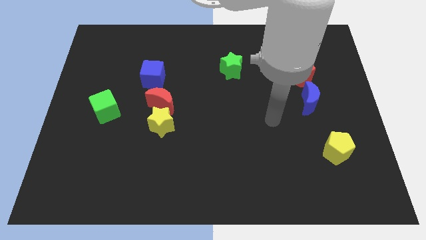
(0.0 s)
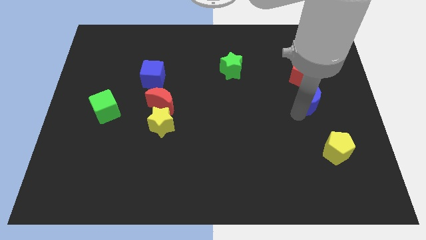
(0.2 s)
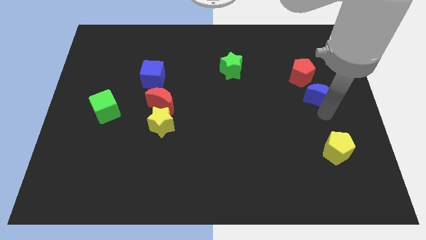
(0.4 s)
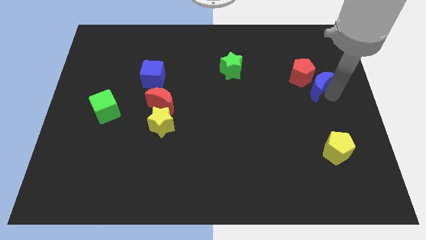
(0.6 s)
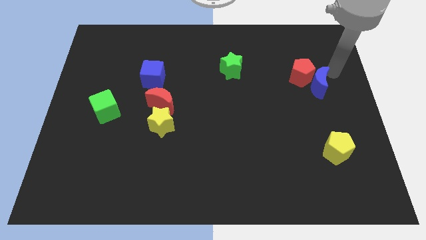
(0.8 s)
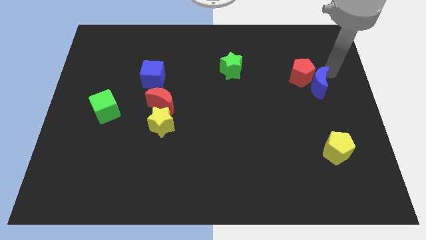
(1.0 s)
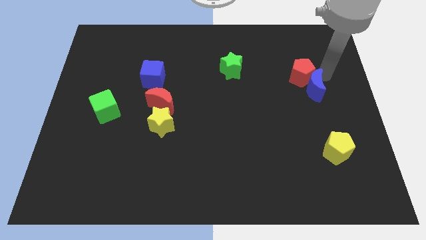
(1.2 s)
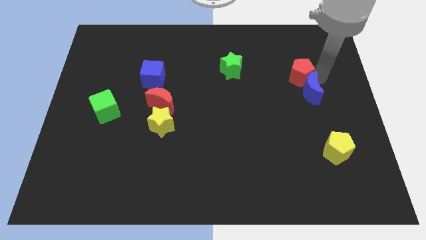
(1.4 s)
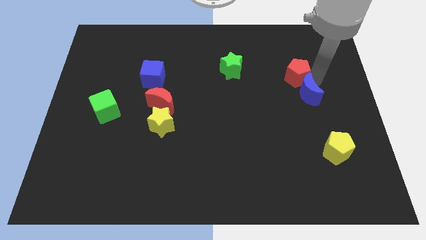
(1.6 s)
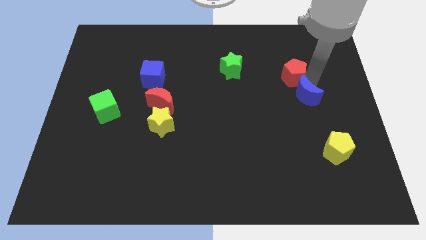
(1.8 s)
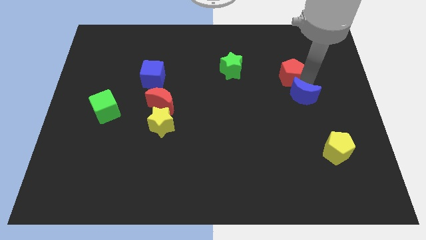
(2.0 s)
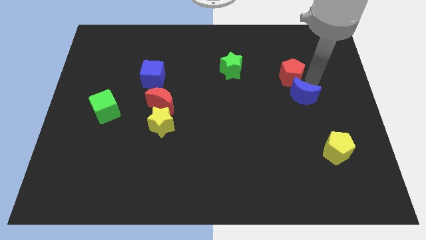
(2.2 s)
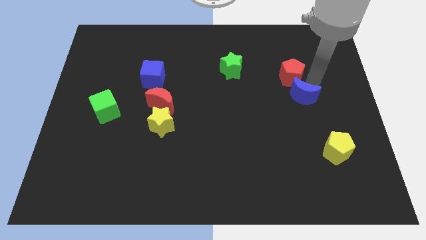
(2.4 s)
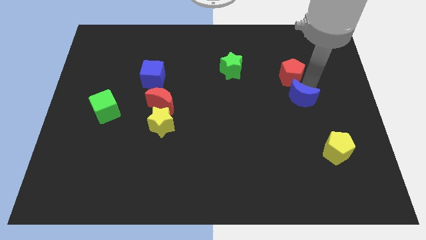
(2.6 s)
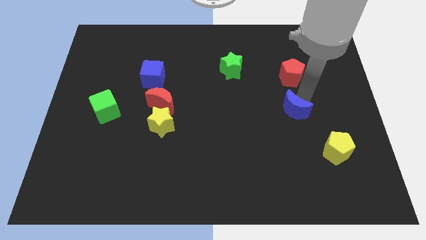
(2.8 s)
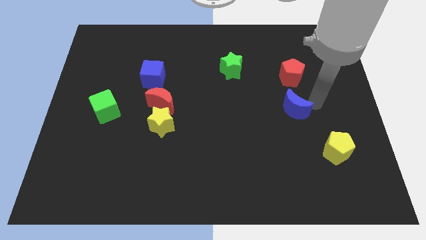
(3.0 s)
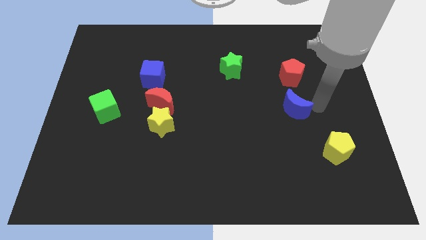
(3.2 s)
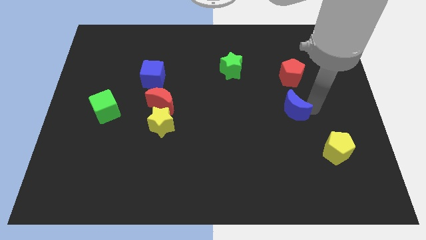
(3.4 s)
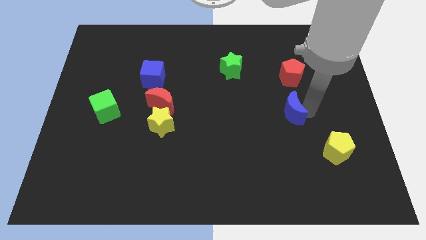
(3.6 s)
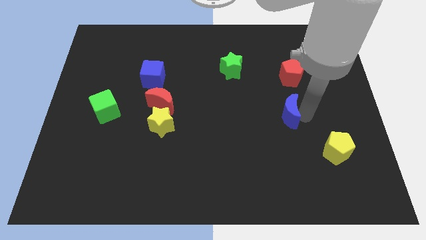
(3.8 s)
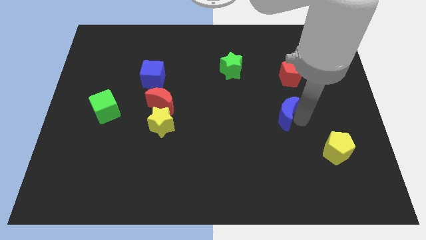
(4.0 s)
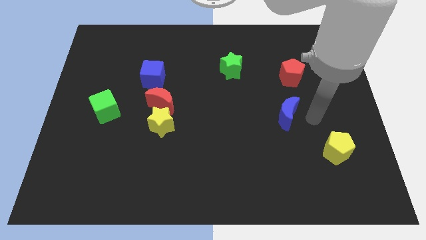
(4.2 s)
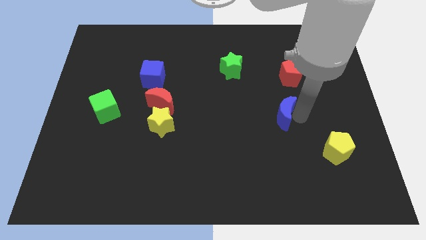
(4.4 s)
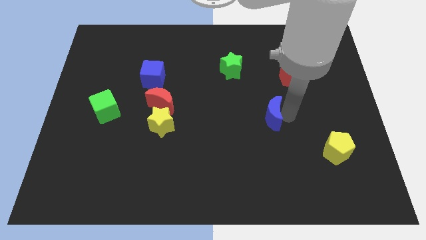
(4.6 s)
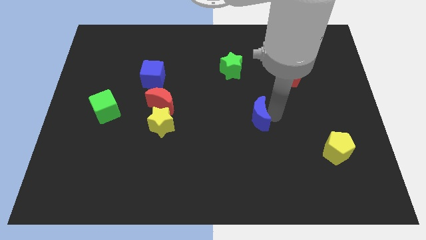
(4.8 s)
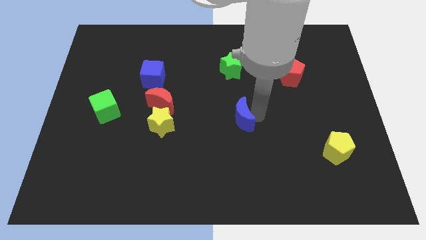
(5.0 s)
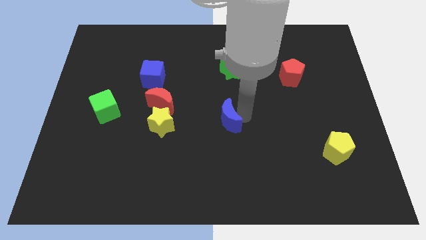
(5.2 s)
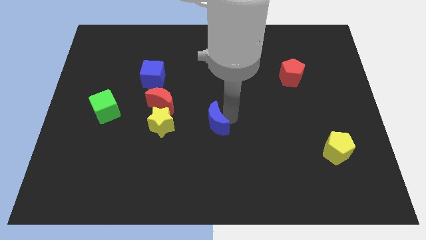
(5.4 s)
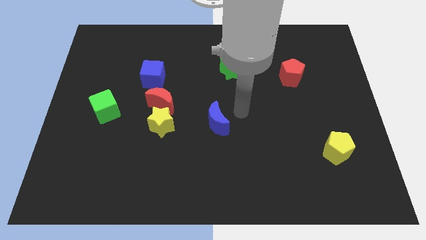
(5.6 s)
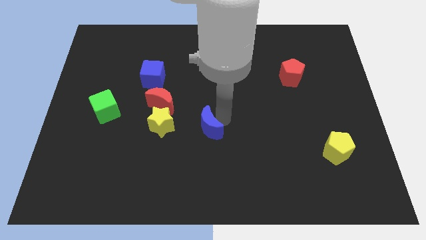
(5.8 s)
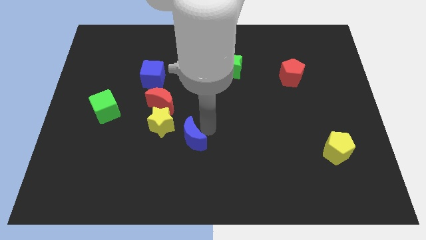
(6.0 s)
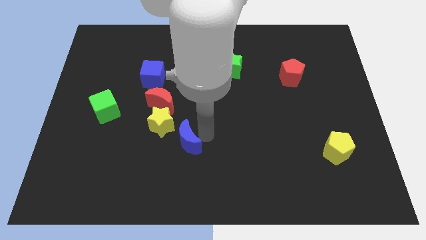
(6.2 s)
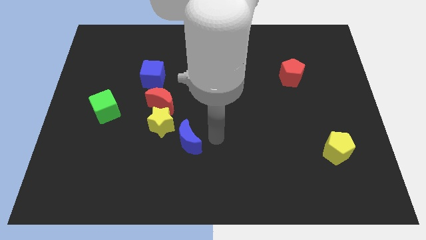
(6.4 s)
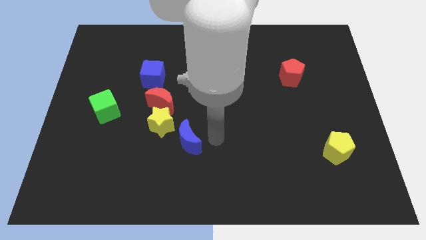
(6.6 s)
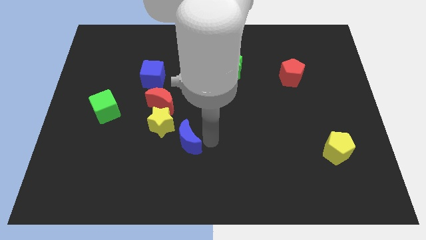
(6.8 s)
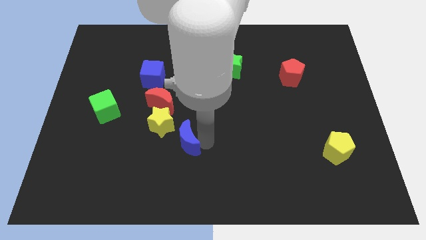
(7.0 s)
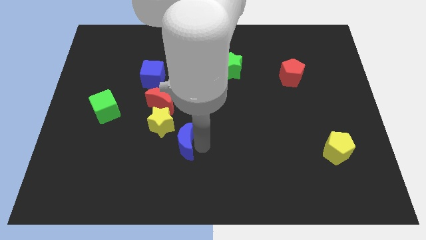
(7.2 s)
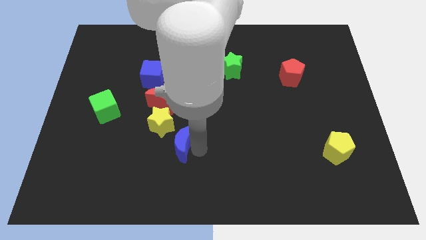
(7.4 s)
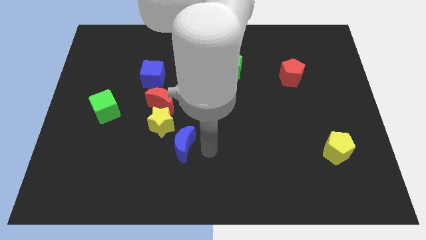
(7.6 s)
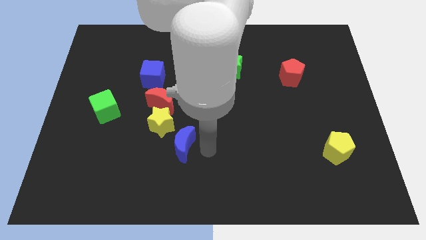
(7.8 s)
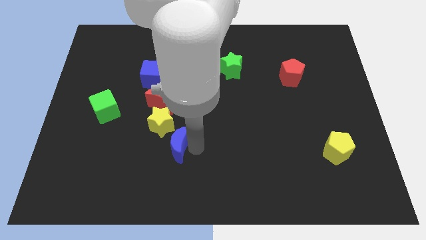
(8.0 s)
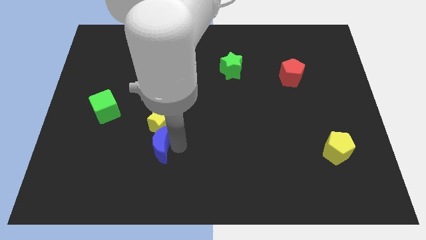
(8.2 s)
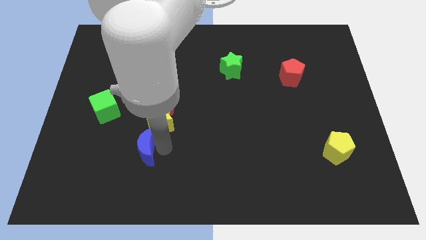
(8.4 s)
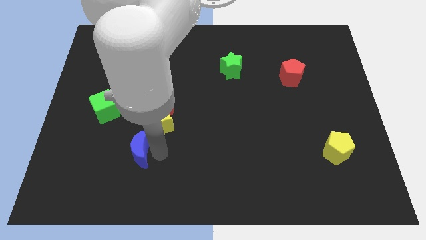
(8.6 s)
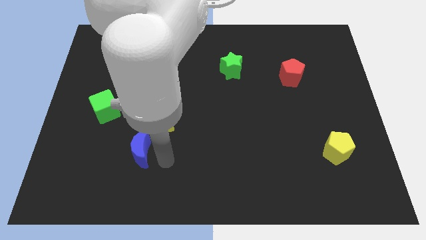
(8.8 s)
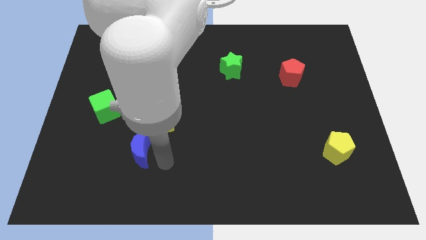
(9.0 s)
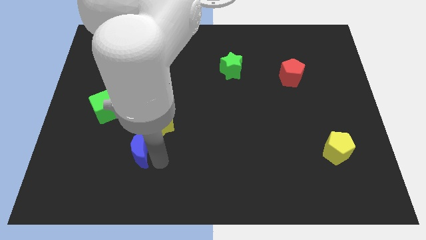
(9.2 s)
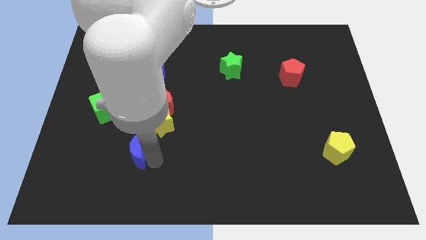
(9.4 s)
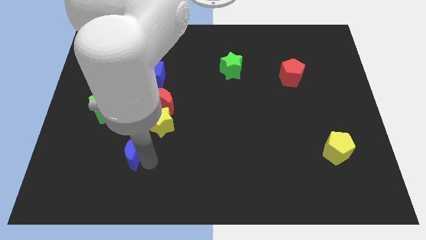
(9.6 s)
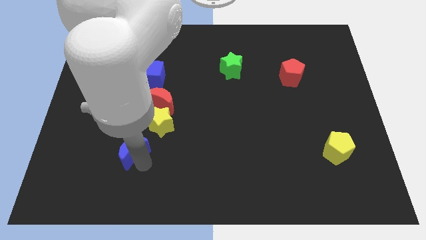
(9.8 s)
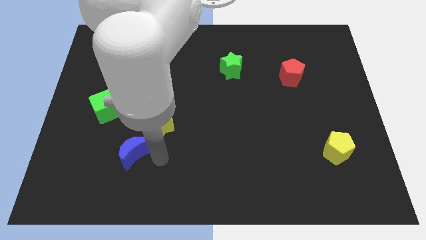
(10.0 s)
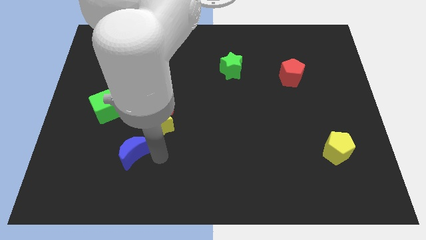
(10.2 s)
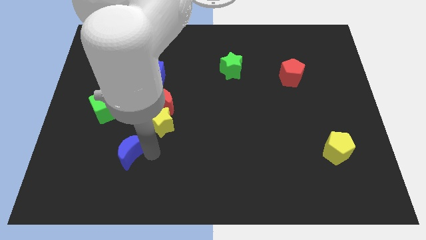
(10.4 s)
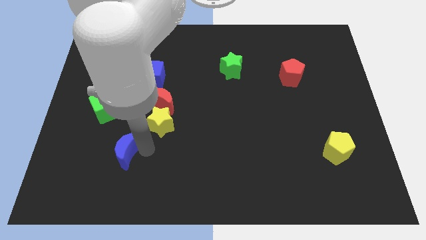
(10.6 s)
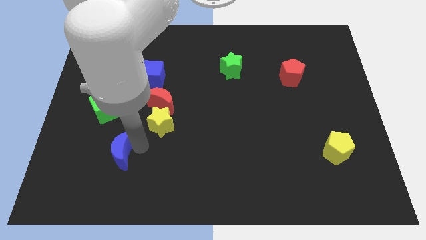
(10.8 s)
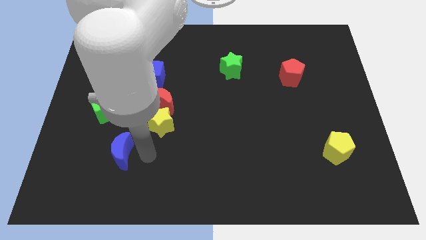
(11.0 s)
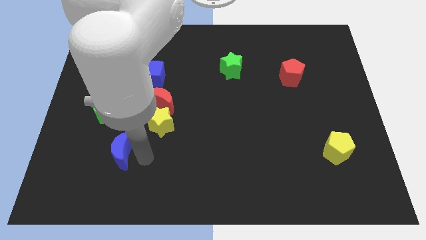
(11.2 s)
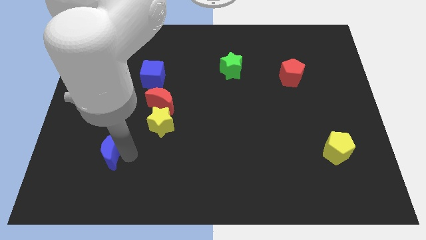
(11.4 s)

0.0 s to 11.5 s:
slide the blue moon to the bottom side of the green cube

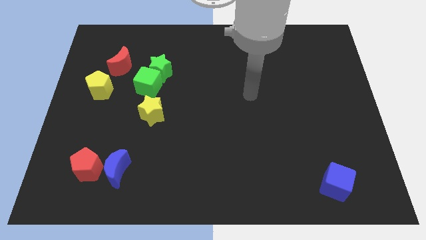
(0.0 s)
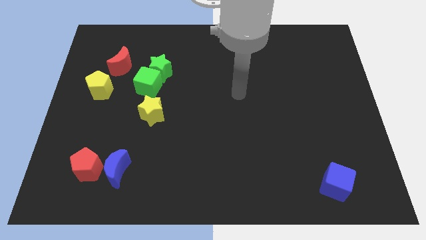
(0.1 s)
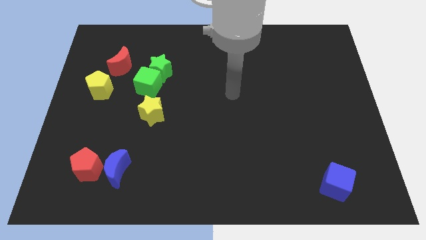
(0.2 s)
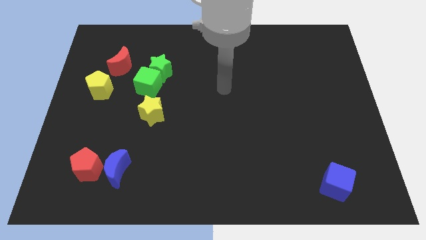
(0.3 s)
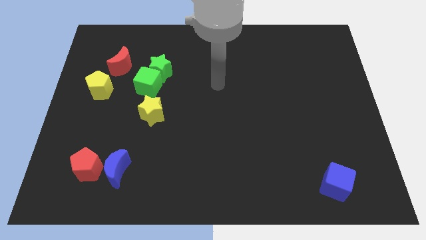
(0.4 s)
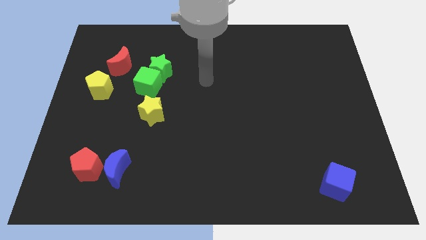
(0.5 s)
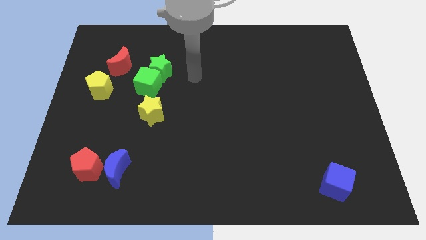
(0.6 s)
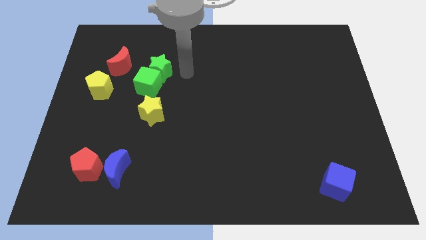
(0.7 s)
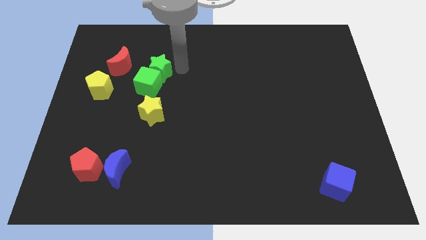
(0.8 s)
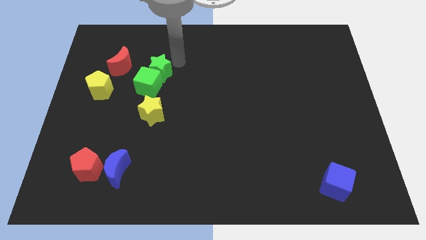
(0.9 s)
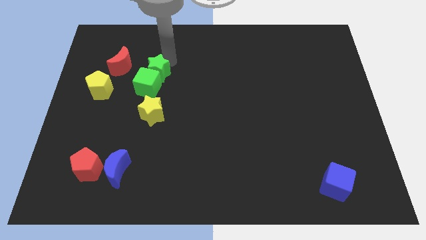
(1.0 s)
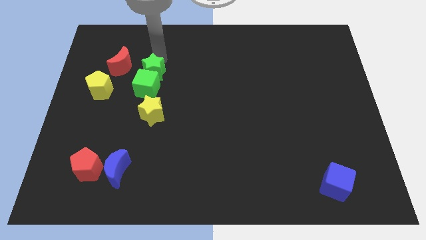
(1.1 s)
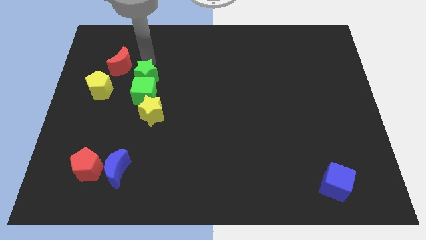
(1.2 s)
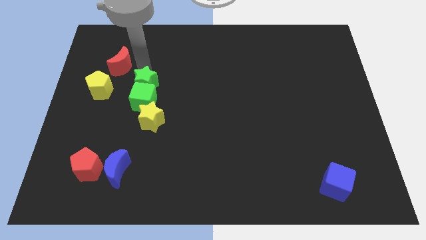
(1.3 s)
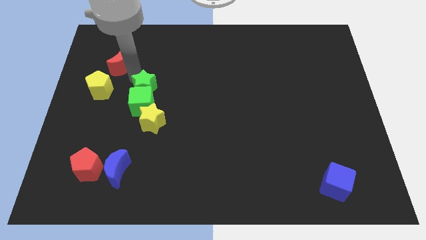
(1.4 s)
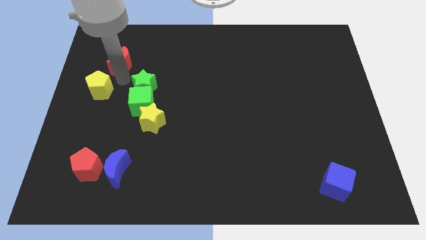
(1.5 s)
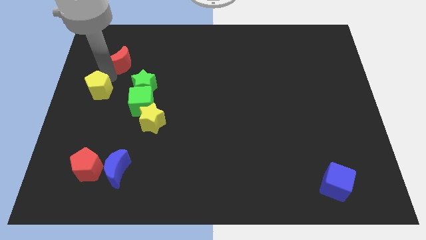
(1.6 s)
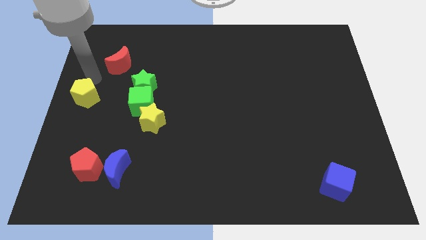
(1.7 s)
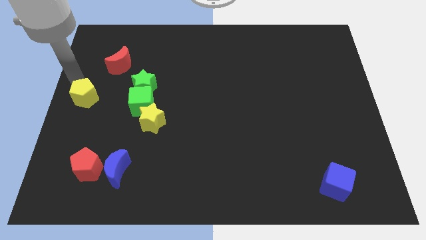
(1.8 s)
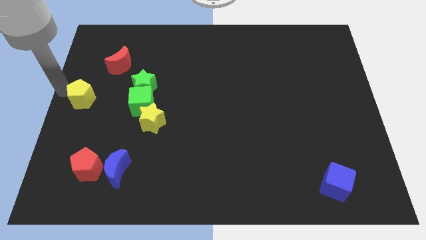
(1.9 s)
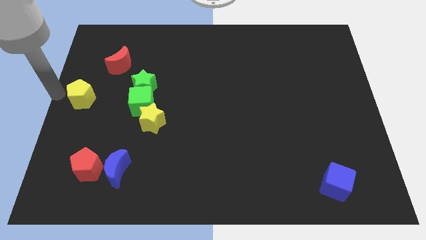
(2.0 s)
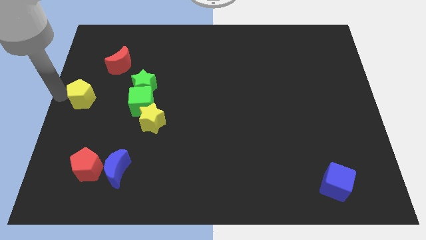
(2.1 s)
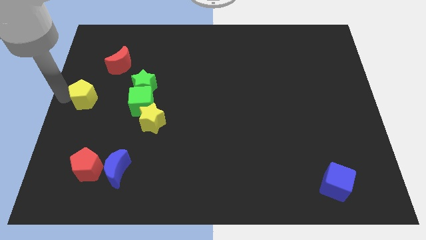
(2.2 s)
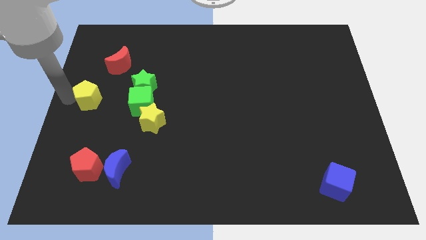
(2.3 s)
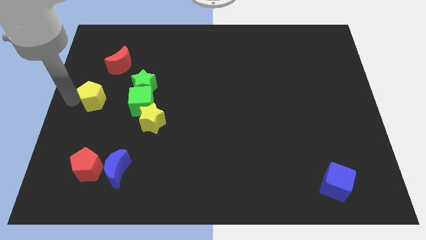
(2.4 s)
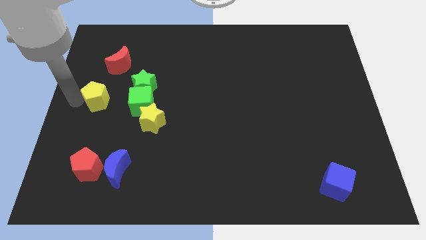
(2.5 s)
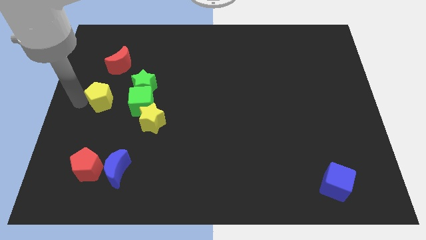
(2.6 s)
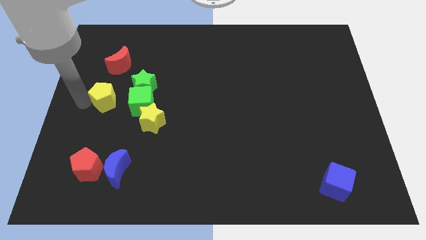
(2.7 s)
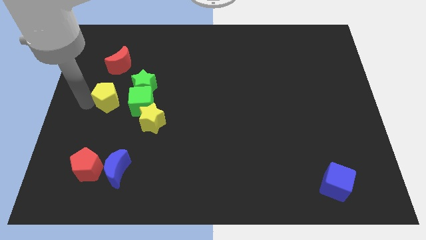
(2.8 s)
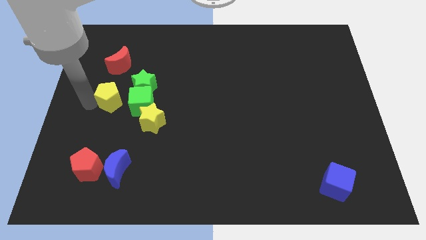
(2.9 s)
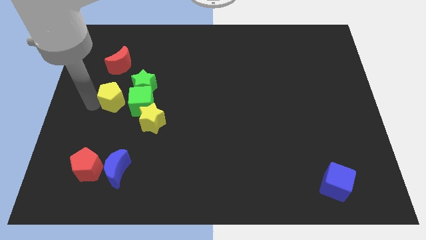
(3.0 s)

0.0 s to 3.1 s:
put the yellow pentagon to the top left of the yellow star
